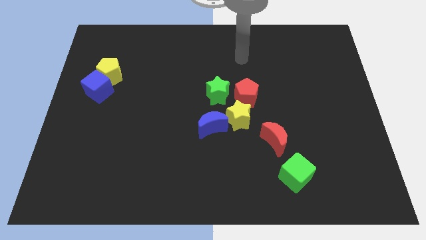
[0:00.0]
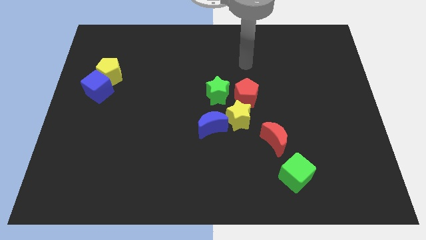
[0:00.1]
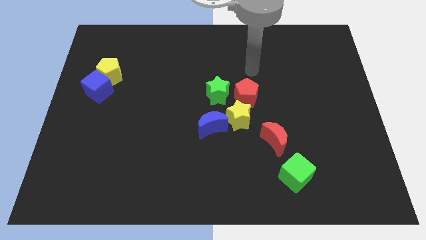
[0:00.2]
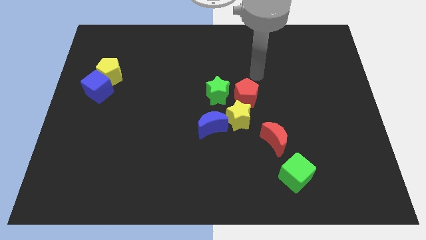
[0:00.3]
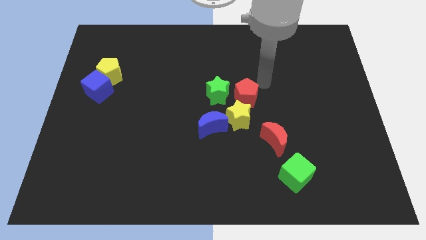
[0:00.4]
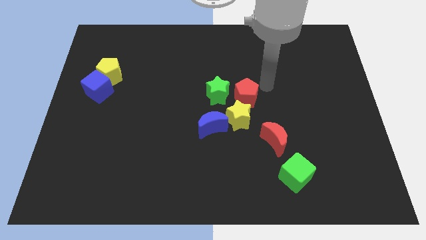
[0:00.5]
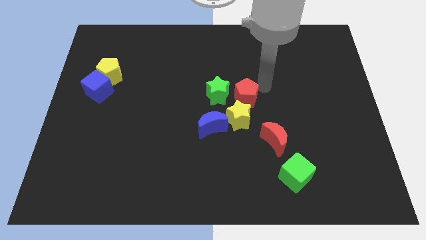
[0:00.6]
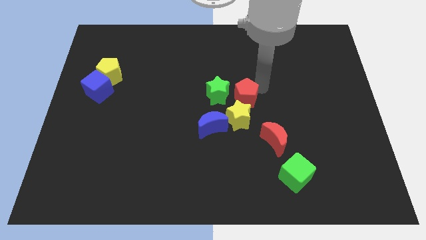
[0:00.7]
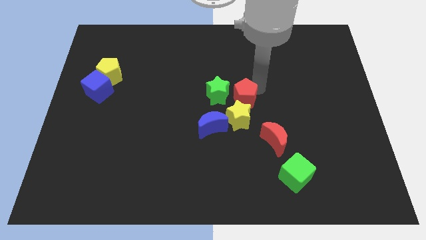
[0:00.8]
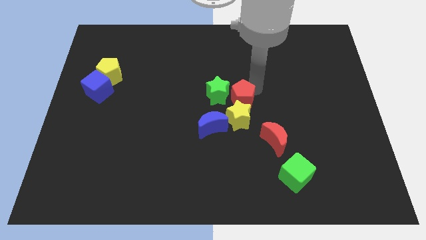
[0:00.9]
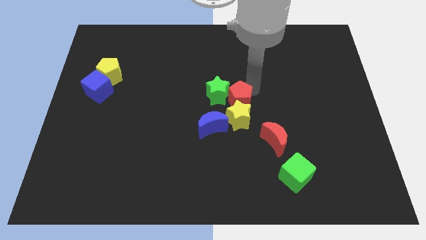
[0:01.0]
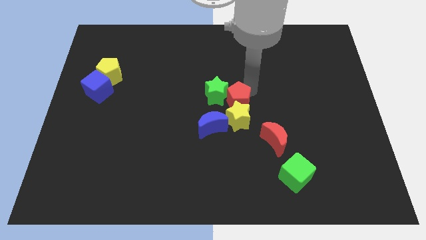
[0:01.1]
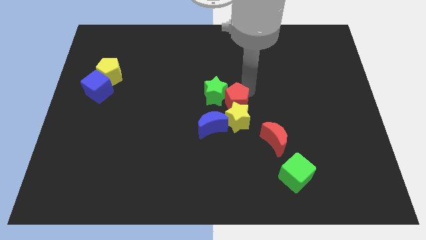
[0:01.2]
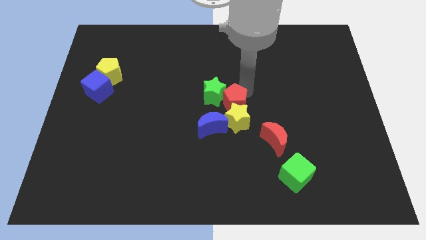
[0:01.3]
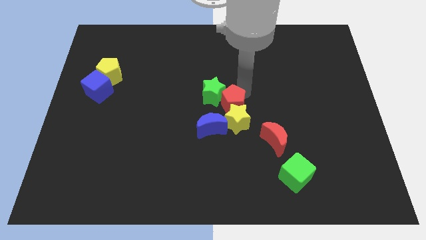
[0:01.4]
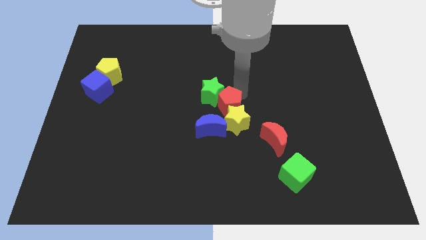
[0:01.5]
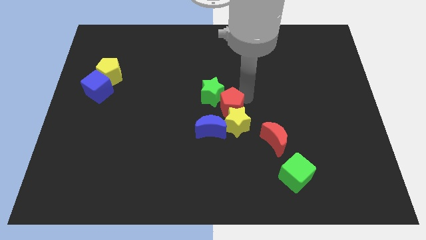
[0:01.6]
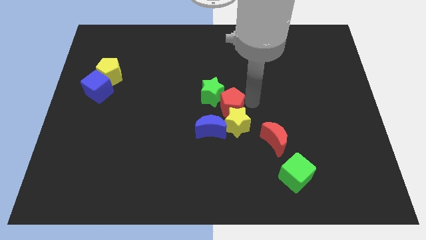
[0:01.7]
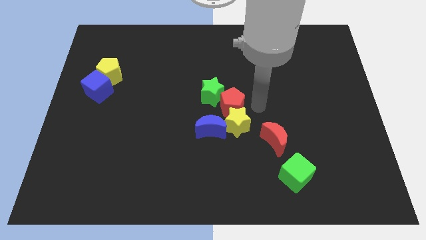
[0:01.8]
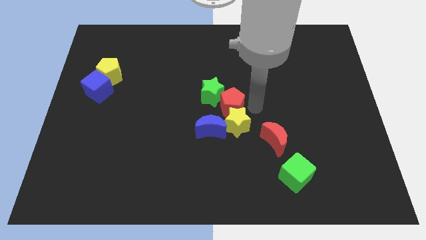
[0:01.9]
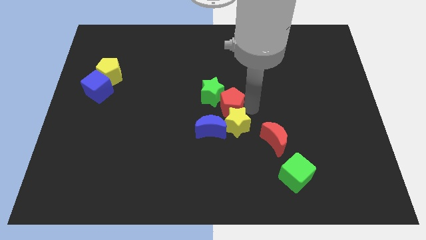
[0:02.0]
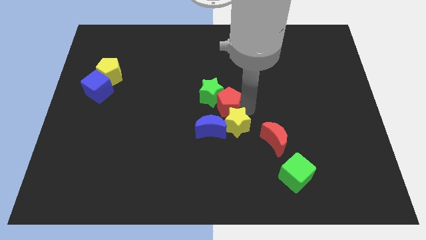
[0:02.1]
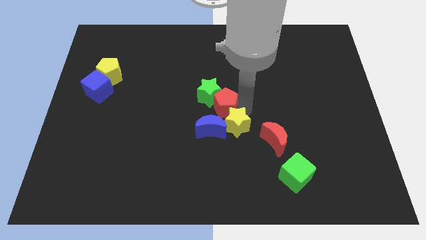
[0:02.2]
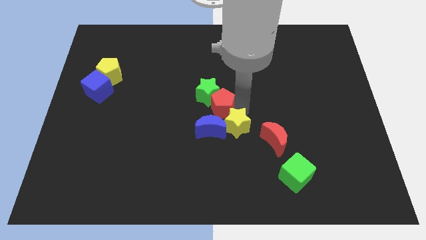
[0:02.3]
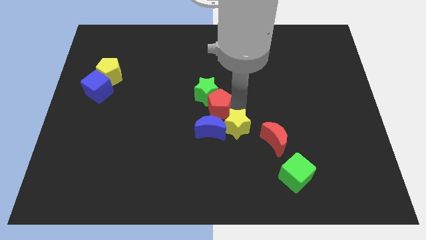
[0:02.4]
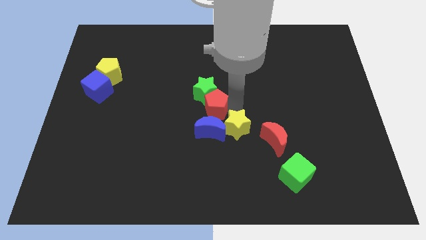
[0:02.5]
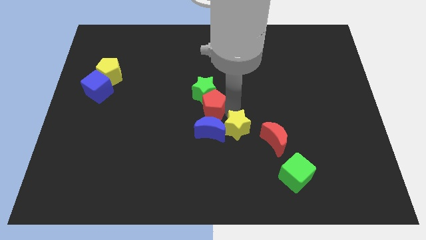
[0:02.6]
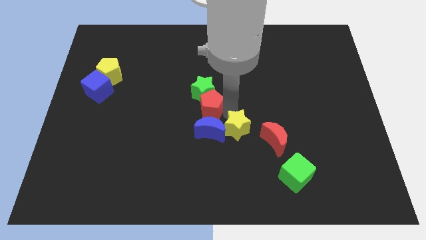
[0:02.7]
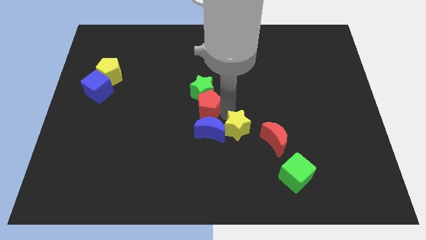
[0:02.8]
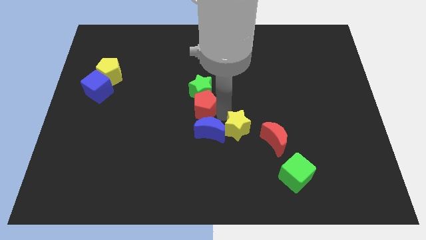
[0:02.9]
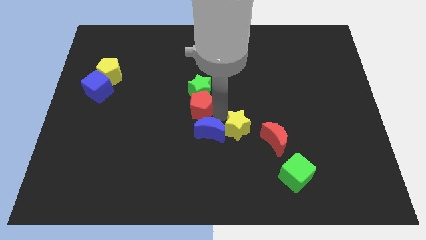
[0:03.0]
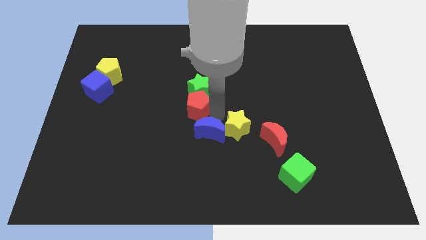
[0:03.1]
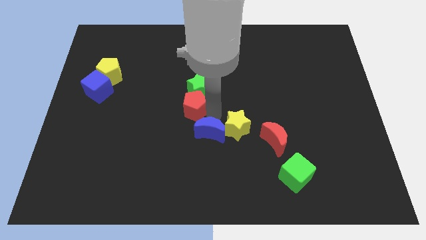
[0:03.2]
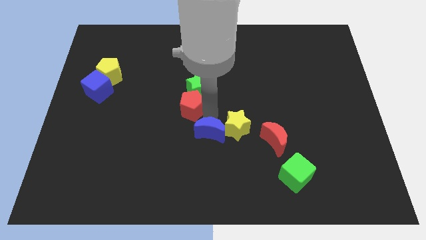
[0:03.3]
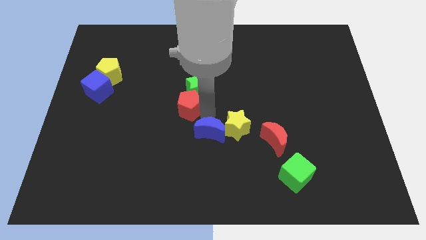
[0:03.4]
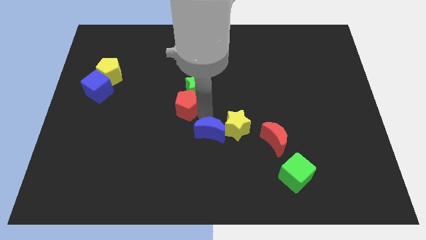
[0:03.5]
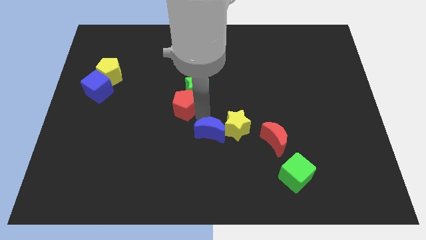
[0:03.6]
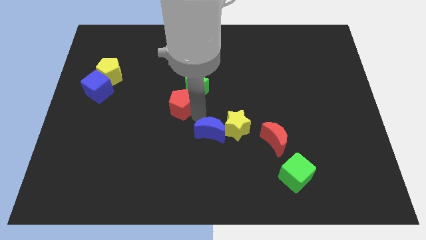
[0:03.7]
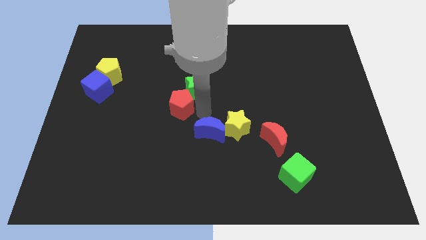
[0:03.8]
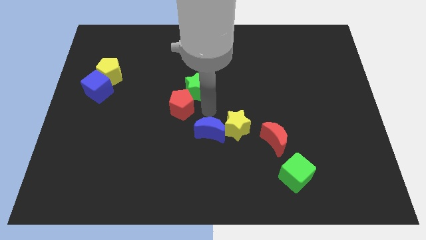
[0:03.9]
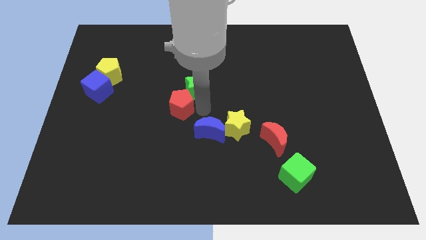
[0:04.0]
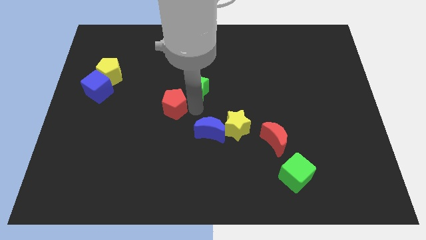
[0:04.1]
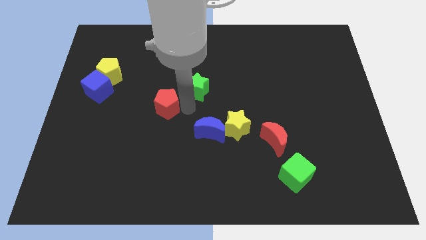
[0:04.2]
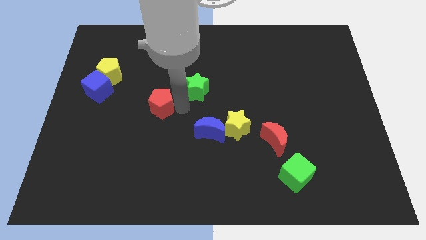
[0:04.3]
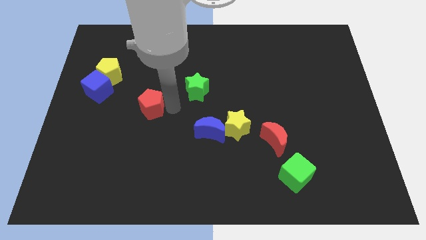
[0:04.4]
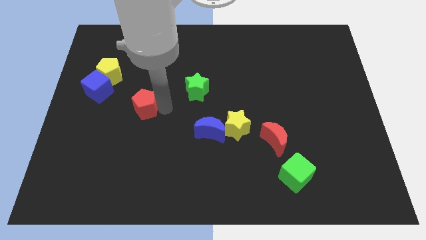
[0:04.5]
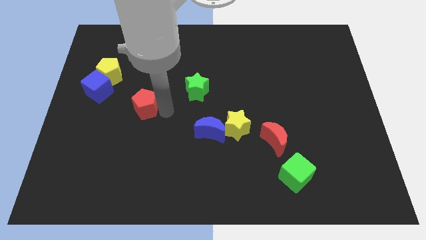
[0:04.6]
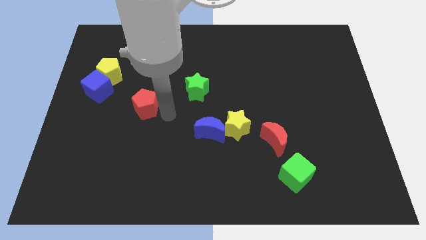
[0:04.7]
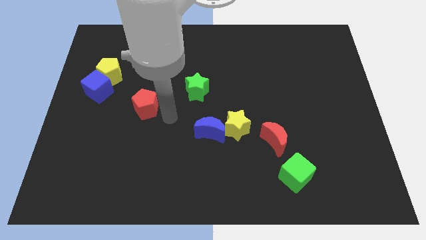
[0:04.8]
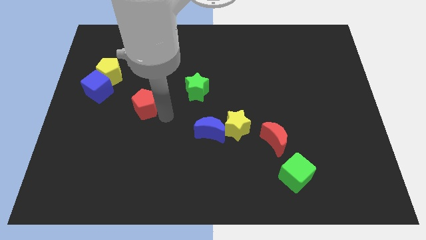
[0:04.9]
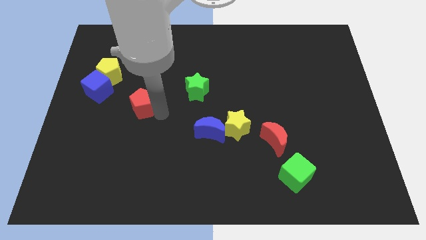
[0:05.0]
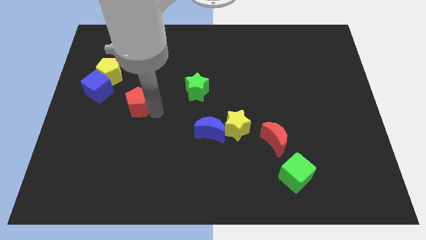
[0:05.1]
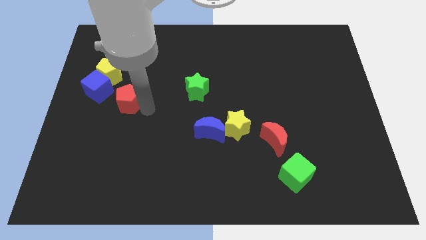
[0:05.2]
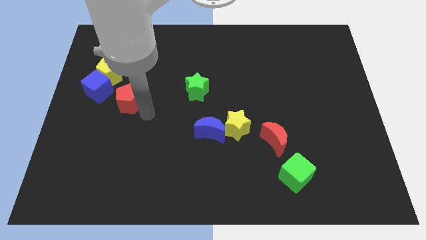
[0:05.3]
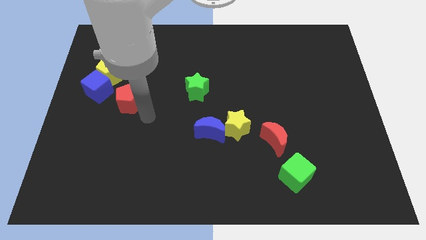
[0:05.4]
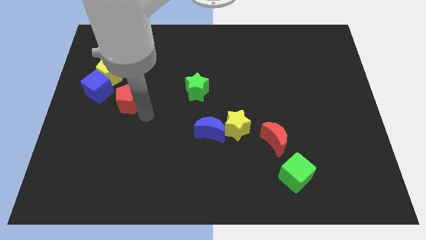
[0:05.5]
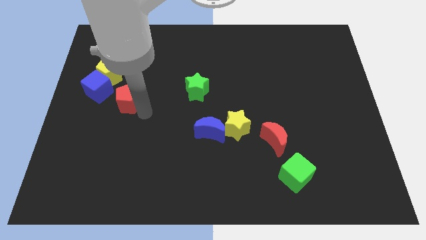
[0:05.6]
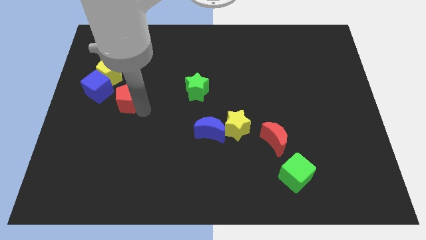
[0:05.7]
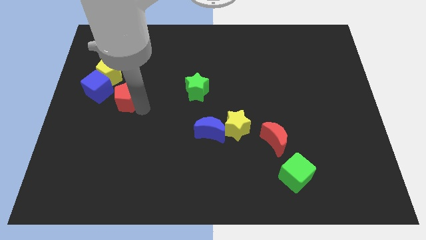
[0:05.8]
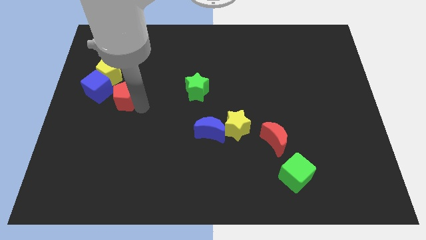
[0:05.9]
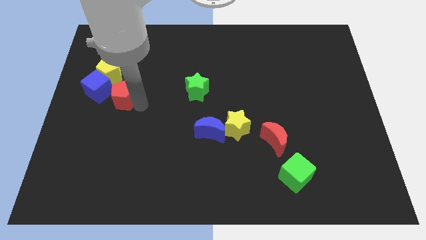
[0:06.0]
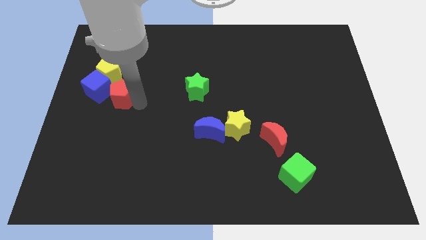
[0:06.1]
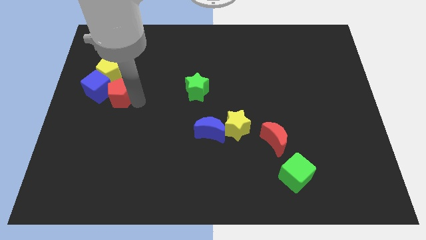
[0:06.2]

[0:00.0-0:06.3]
push the red pentagon to the blue cube

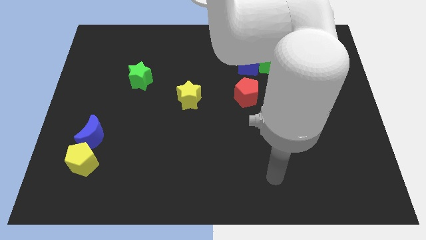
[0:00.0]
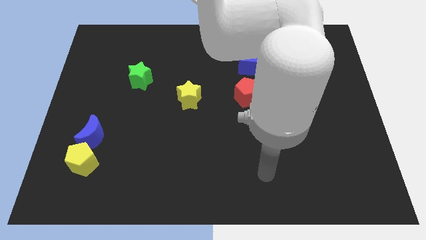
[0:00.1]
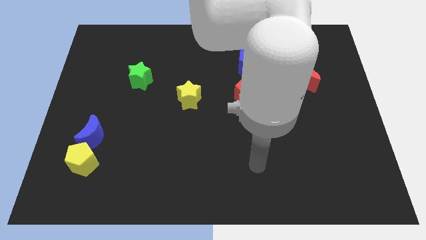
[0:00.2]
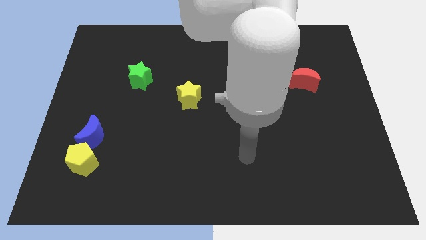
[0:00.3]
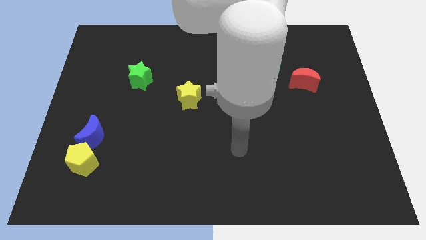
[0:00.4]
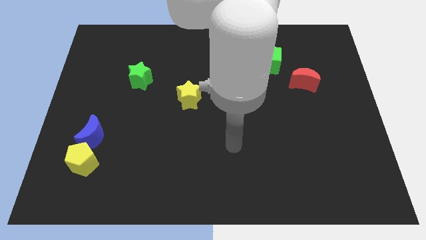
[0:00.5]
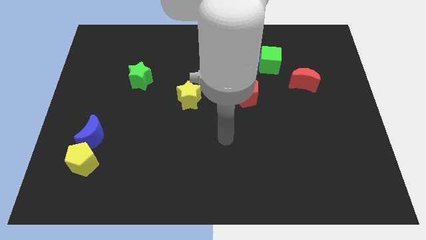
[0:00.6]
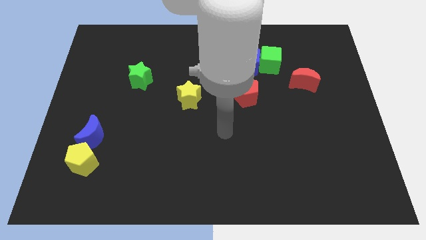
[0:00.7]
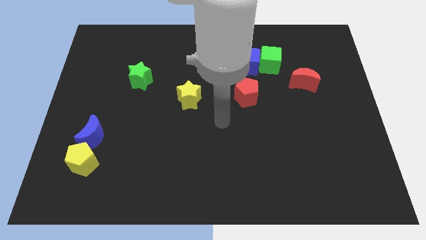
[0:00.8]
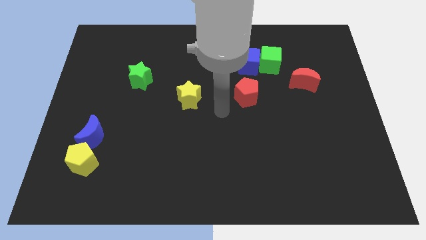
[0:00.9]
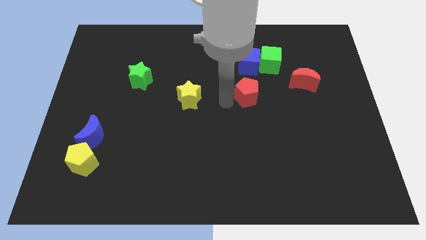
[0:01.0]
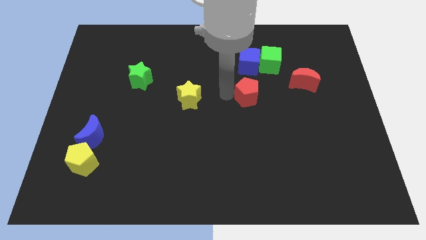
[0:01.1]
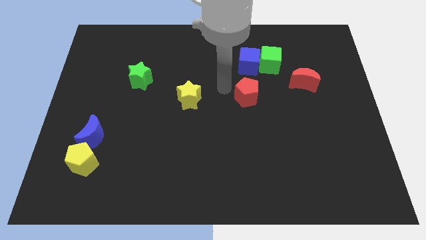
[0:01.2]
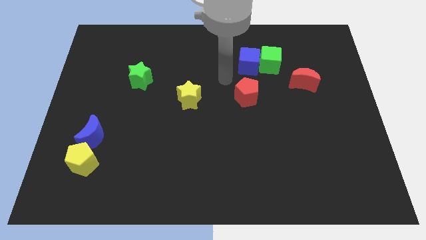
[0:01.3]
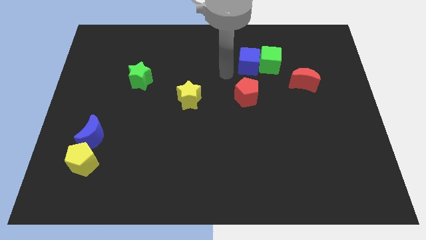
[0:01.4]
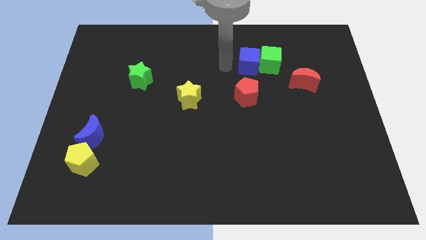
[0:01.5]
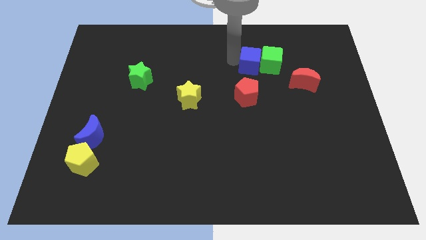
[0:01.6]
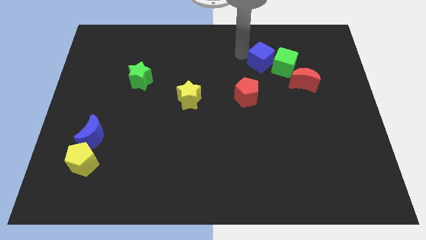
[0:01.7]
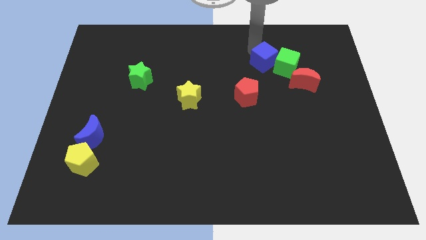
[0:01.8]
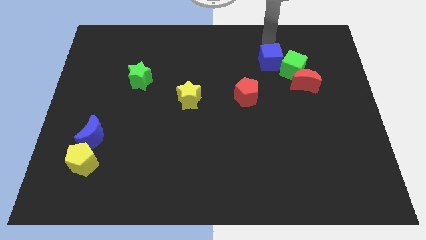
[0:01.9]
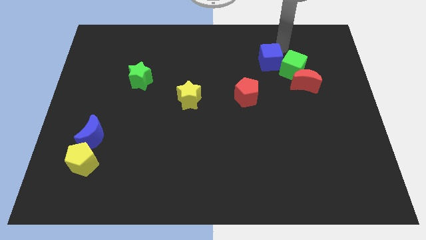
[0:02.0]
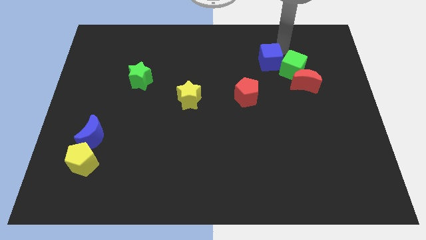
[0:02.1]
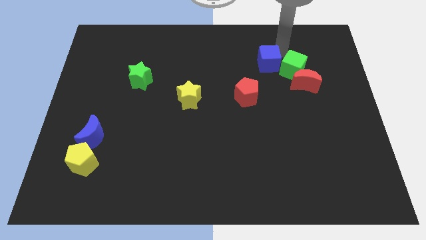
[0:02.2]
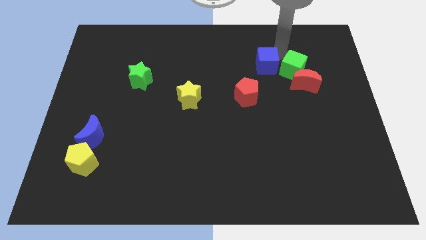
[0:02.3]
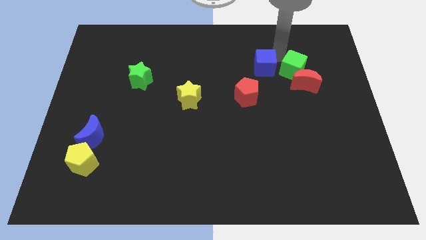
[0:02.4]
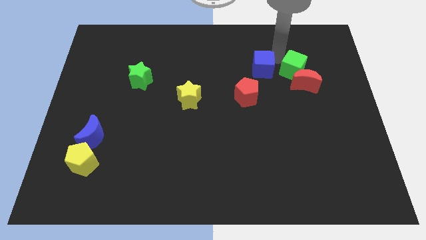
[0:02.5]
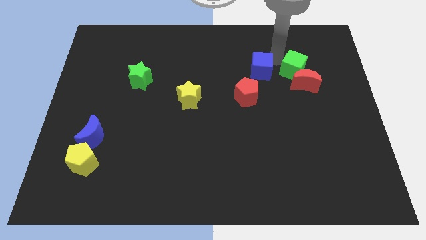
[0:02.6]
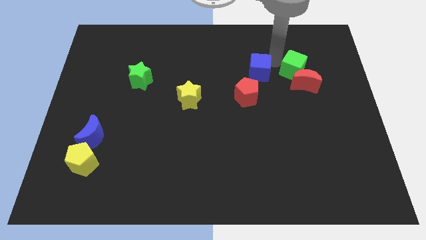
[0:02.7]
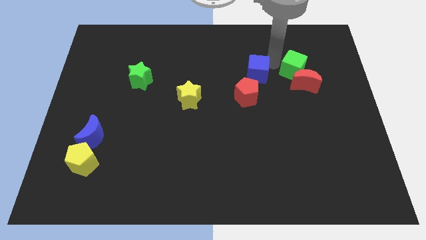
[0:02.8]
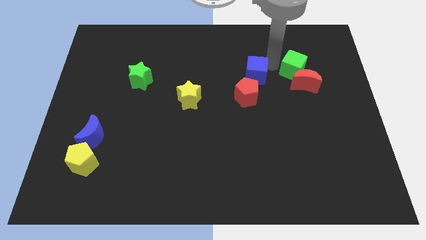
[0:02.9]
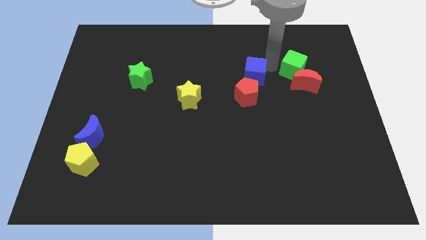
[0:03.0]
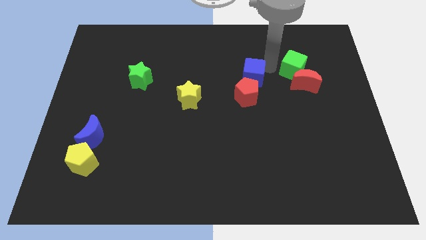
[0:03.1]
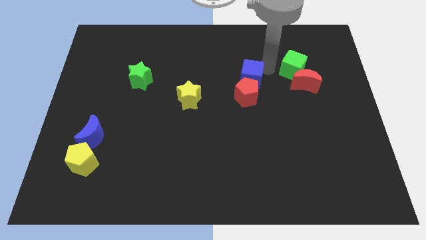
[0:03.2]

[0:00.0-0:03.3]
move the blue cube close to the red pentagon
